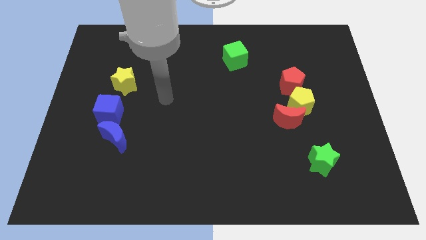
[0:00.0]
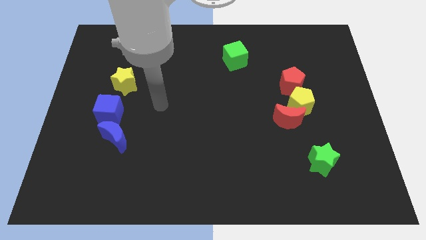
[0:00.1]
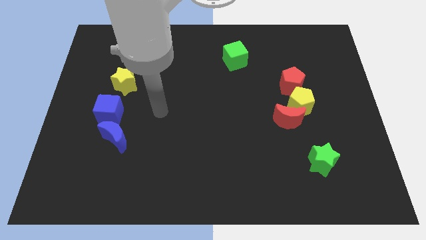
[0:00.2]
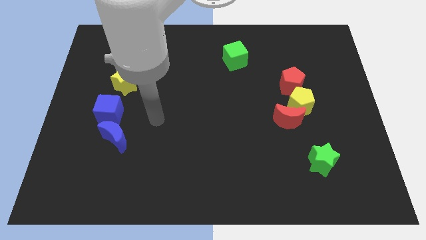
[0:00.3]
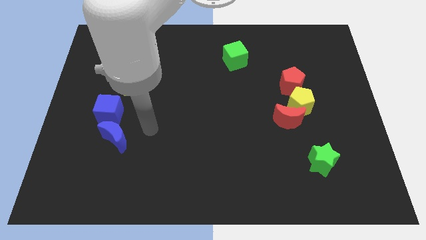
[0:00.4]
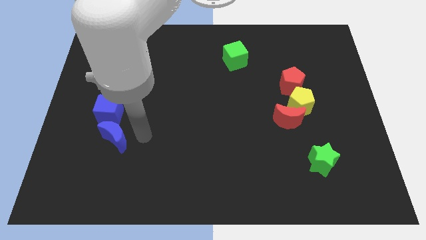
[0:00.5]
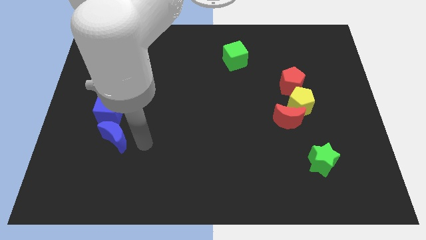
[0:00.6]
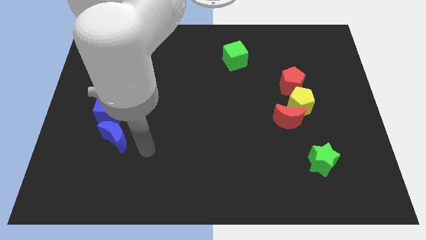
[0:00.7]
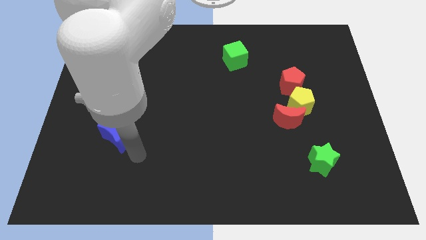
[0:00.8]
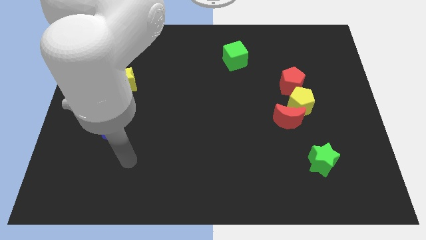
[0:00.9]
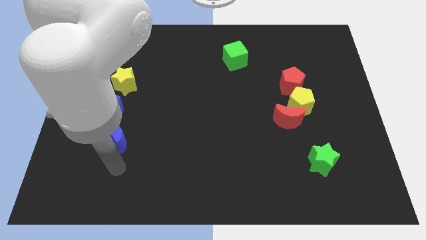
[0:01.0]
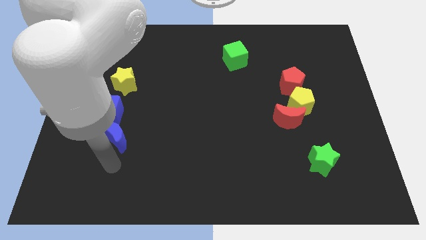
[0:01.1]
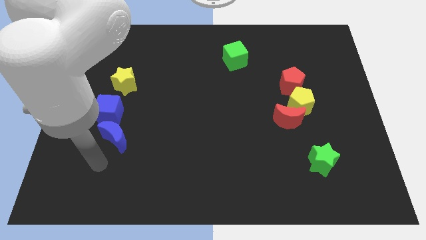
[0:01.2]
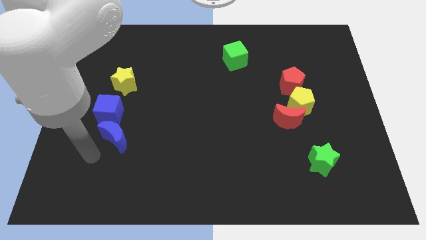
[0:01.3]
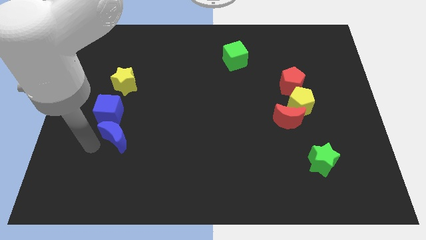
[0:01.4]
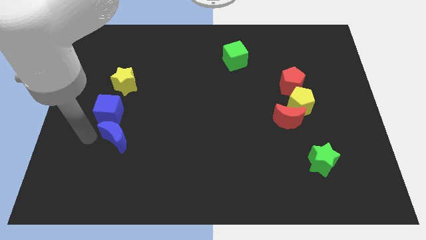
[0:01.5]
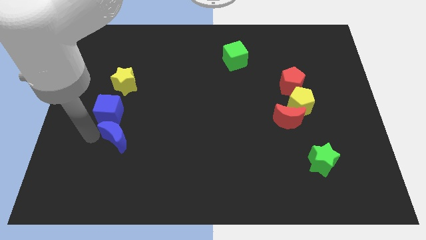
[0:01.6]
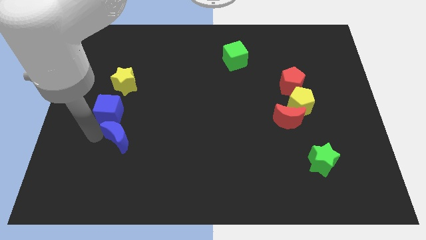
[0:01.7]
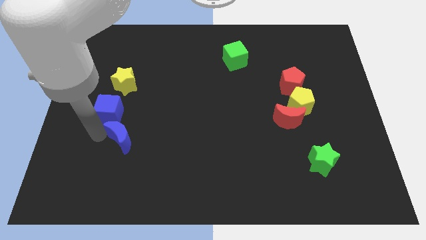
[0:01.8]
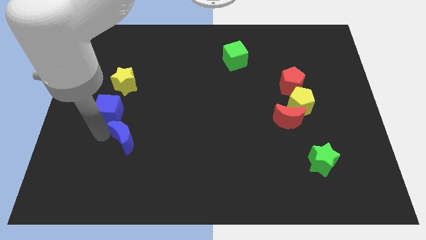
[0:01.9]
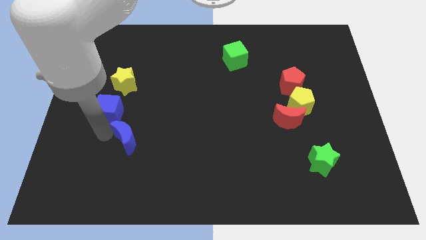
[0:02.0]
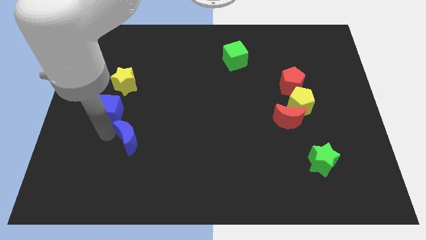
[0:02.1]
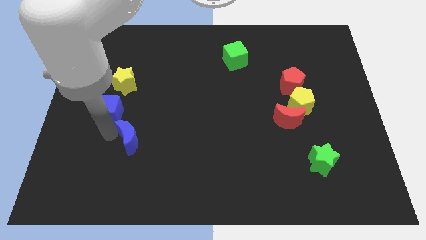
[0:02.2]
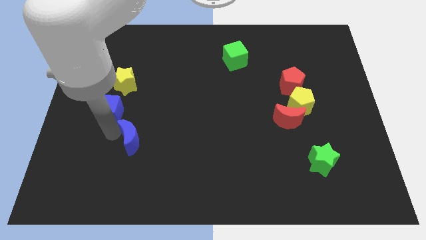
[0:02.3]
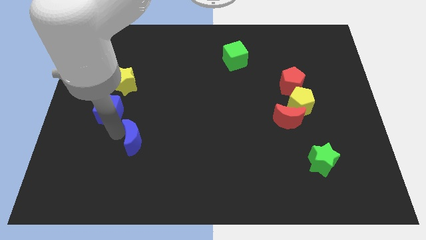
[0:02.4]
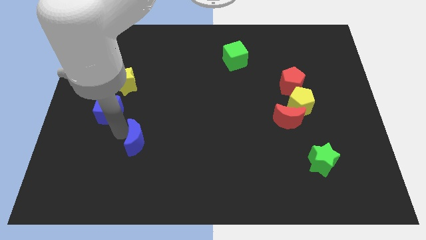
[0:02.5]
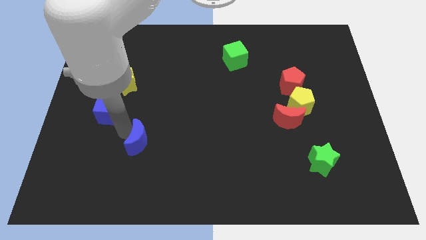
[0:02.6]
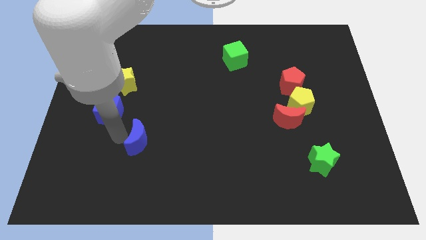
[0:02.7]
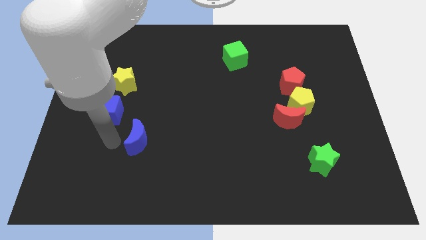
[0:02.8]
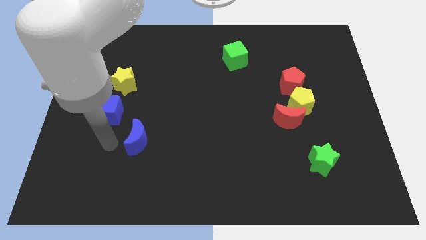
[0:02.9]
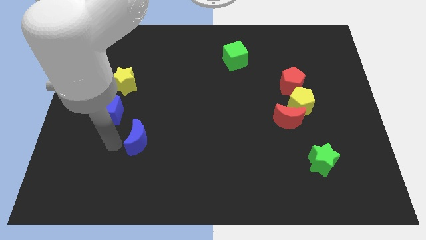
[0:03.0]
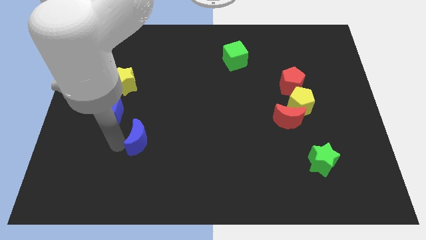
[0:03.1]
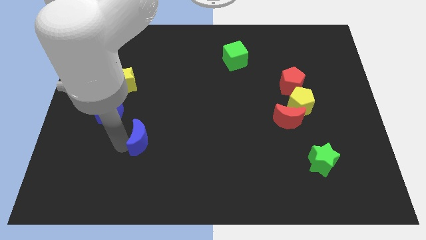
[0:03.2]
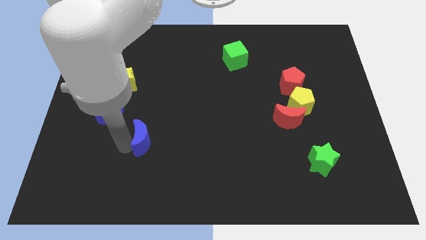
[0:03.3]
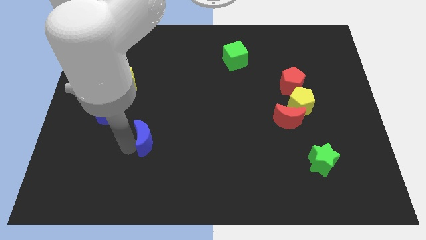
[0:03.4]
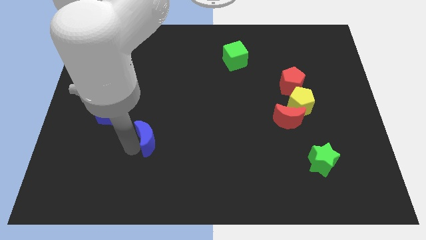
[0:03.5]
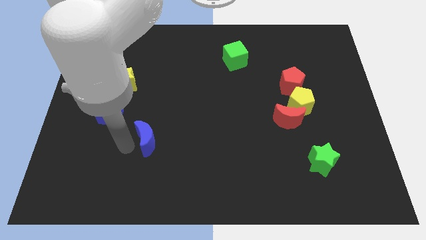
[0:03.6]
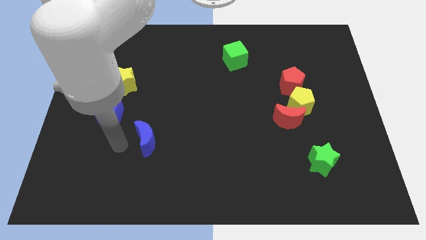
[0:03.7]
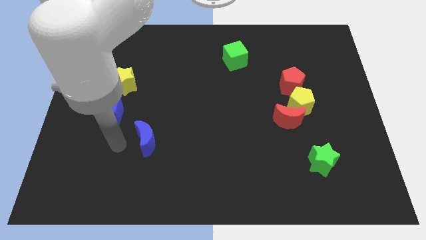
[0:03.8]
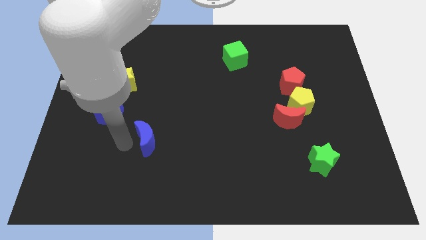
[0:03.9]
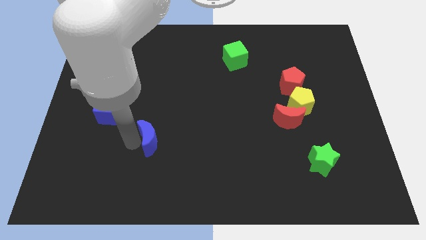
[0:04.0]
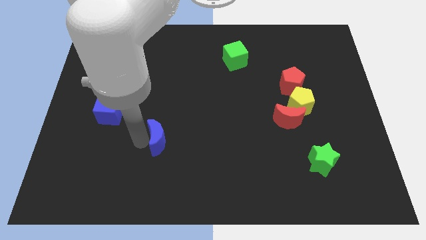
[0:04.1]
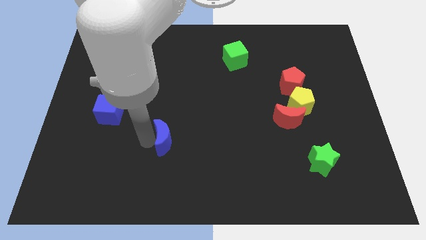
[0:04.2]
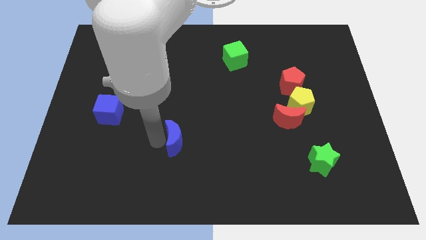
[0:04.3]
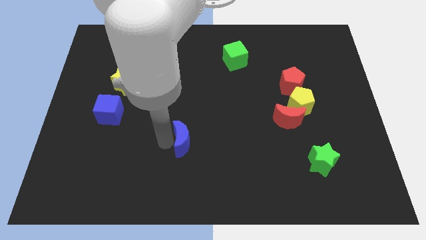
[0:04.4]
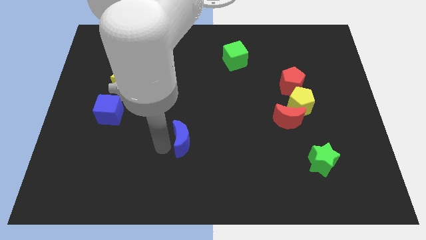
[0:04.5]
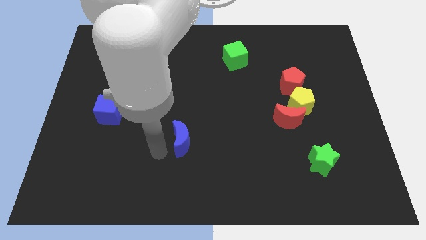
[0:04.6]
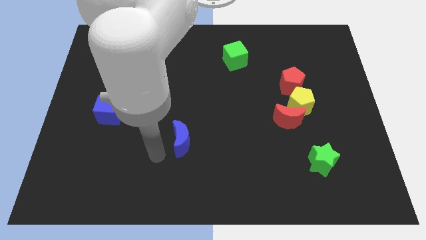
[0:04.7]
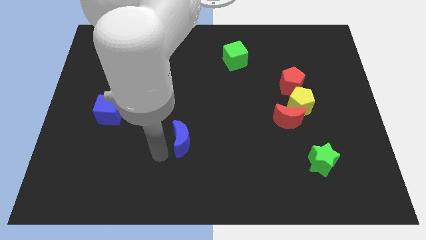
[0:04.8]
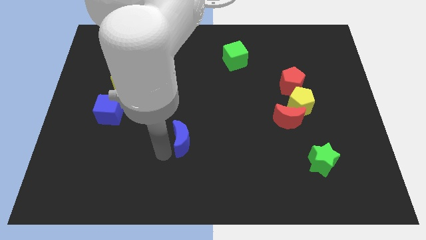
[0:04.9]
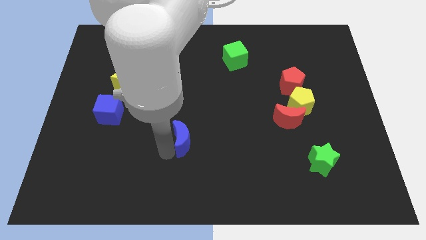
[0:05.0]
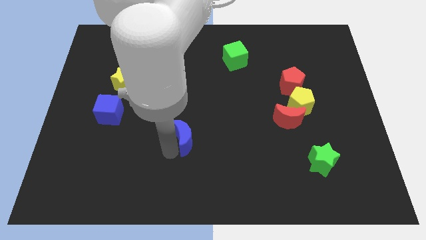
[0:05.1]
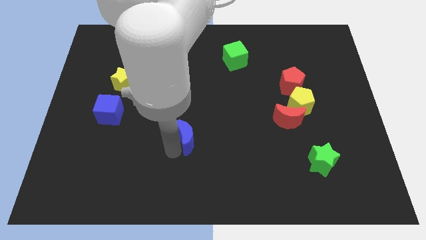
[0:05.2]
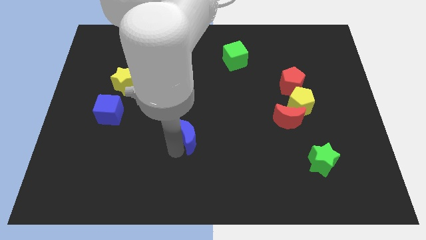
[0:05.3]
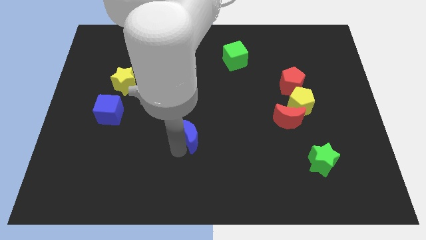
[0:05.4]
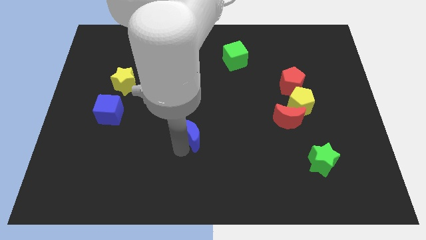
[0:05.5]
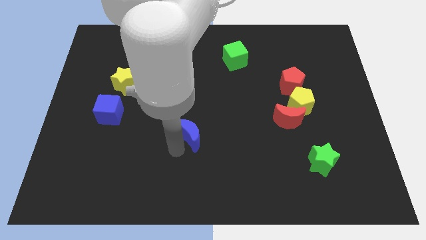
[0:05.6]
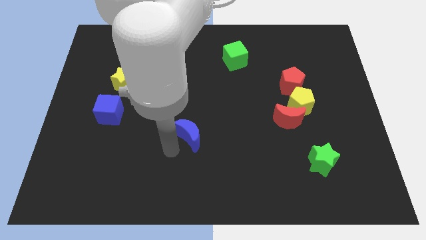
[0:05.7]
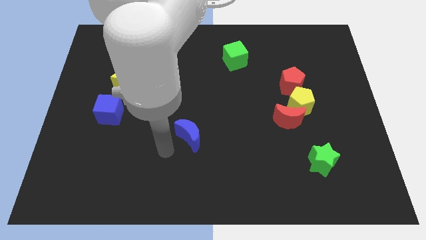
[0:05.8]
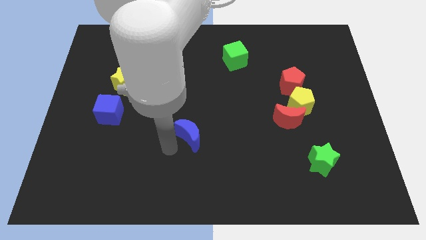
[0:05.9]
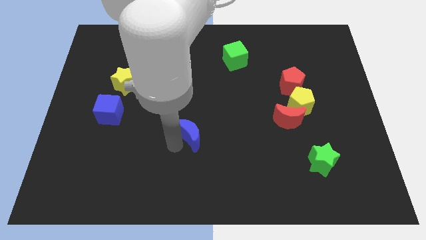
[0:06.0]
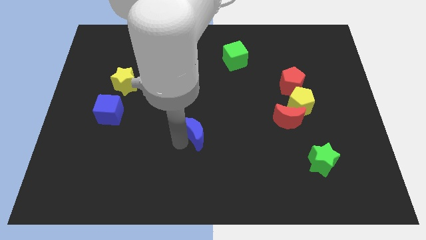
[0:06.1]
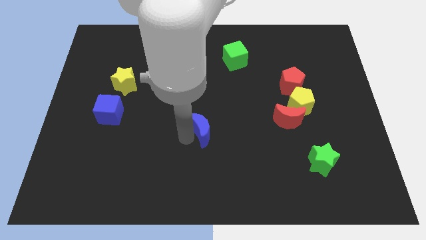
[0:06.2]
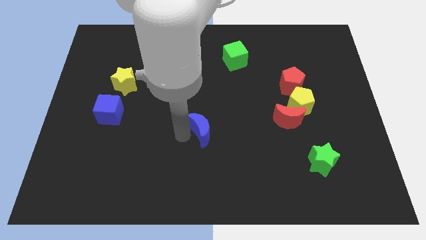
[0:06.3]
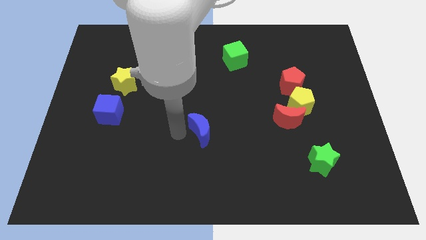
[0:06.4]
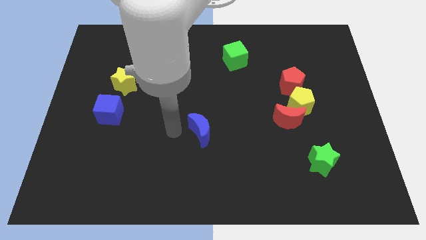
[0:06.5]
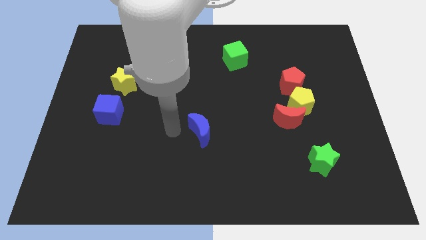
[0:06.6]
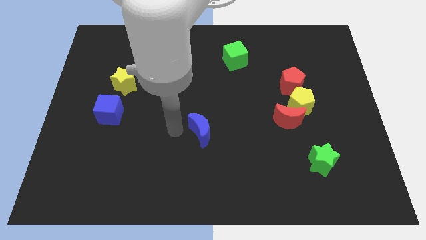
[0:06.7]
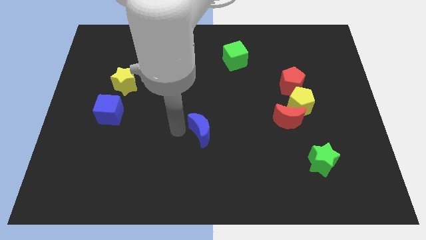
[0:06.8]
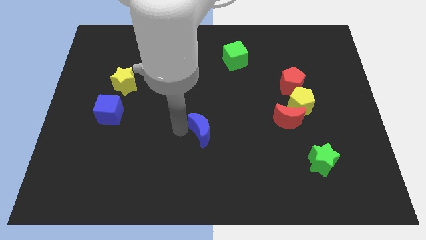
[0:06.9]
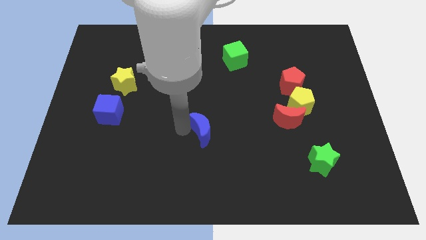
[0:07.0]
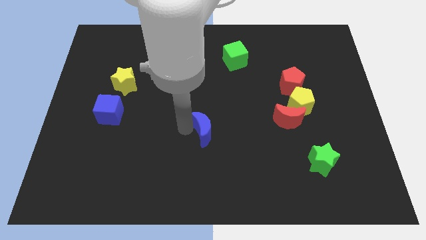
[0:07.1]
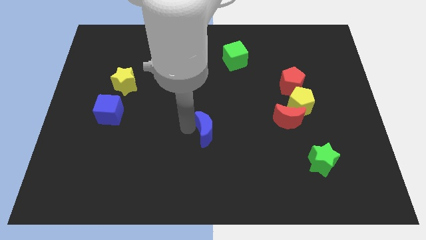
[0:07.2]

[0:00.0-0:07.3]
slide the blue moon to the right

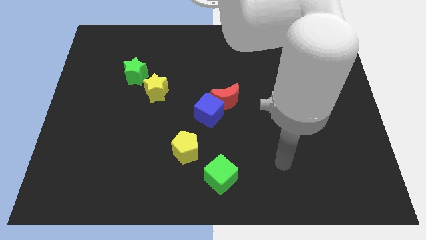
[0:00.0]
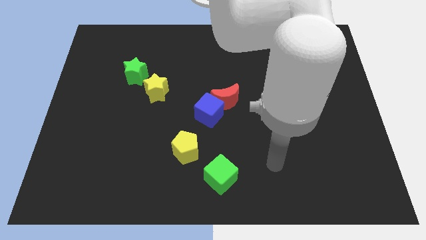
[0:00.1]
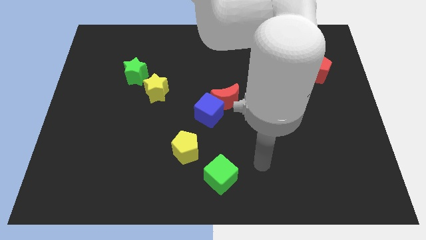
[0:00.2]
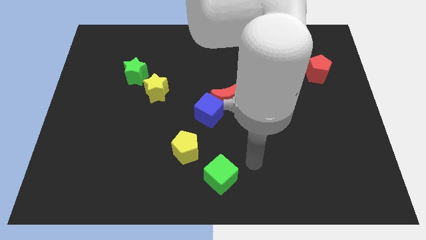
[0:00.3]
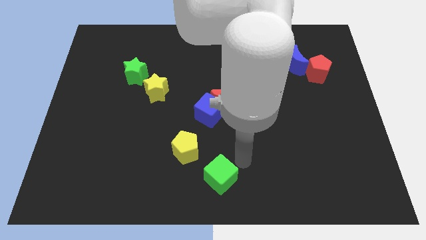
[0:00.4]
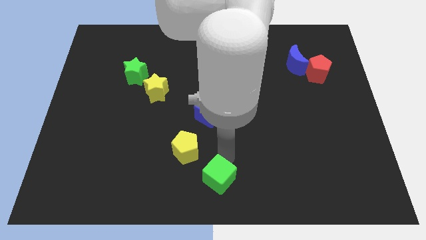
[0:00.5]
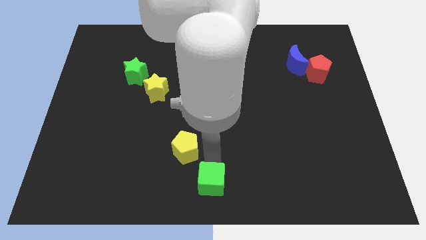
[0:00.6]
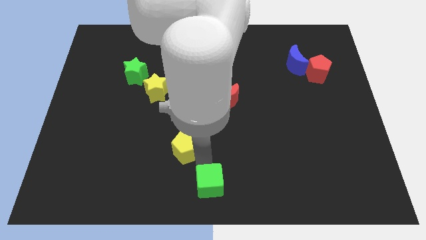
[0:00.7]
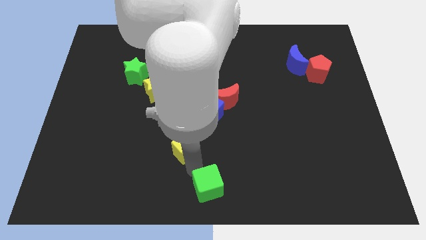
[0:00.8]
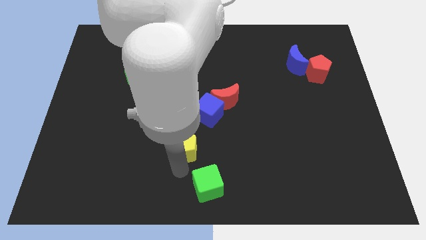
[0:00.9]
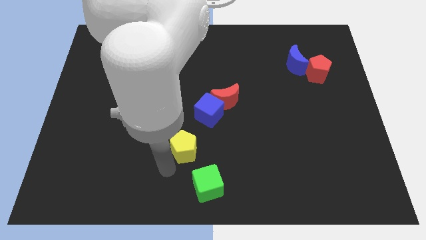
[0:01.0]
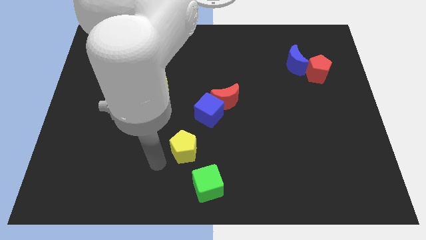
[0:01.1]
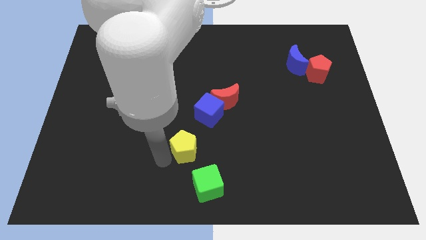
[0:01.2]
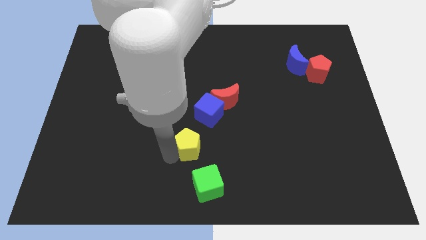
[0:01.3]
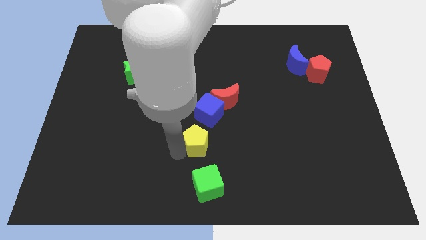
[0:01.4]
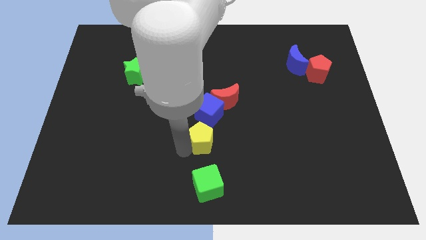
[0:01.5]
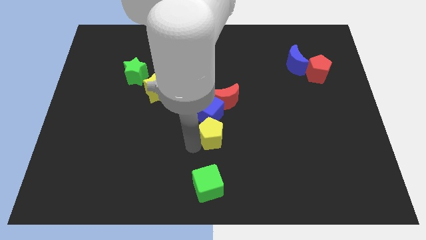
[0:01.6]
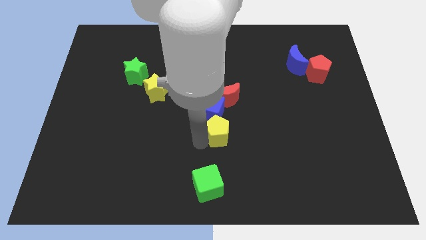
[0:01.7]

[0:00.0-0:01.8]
move the yellow pentagon a little bit up and to the right
